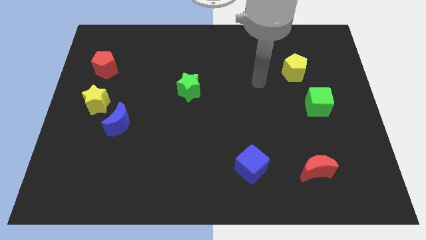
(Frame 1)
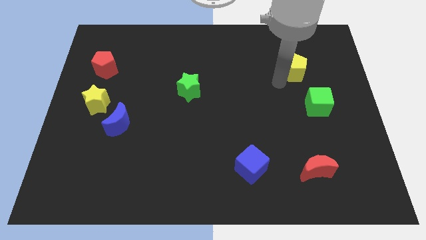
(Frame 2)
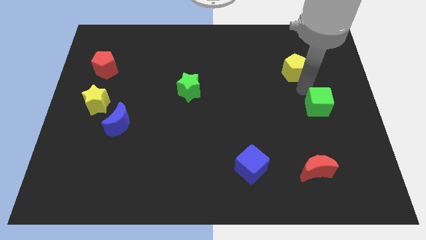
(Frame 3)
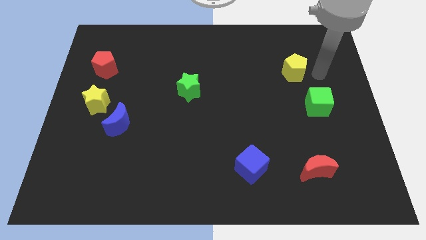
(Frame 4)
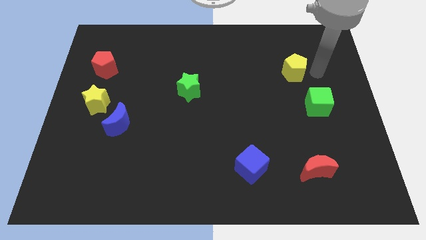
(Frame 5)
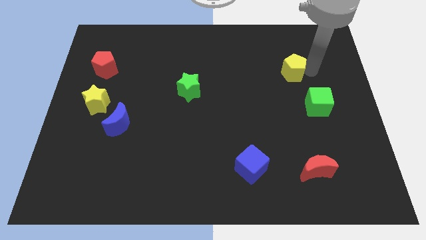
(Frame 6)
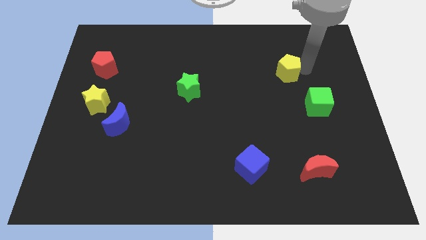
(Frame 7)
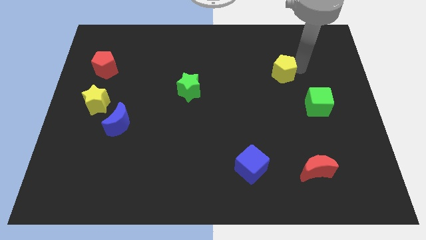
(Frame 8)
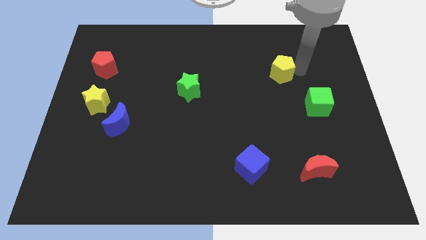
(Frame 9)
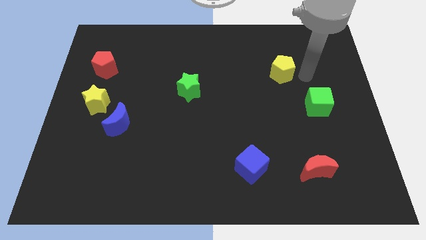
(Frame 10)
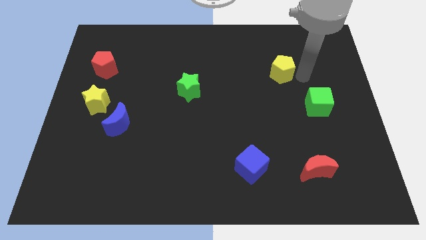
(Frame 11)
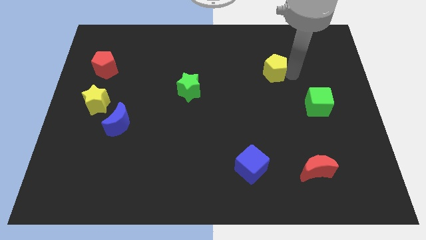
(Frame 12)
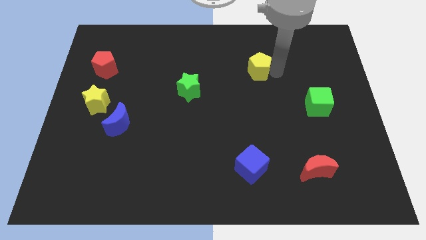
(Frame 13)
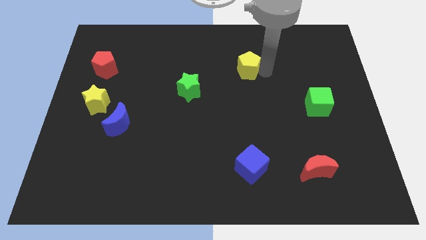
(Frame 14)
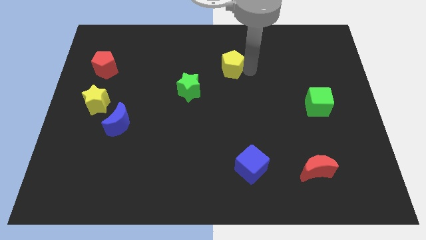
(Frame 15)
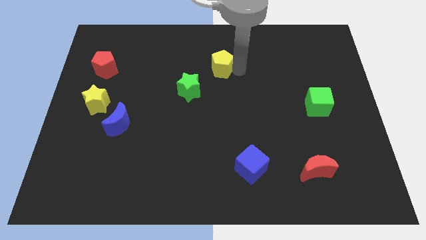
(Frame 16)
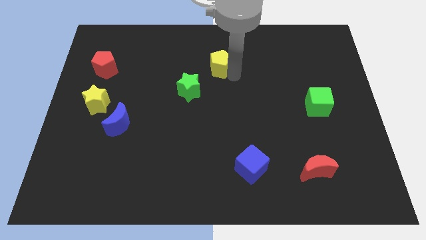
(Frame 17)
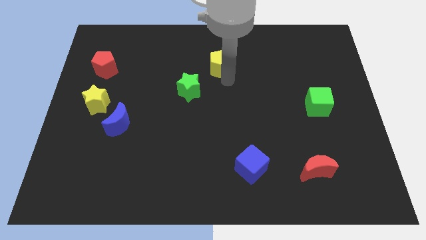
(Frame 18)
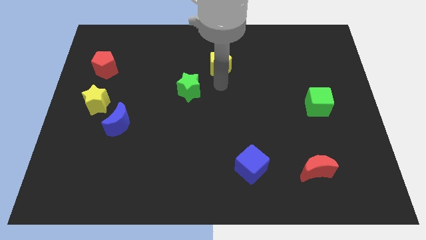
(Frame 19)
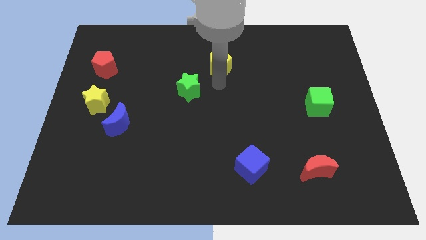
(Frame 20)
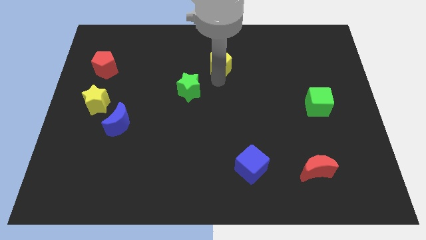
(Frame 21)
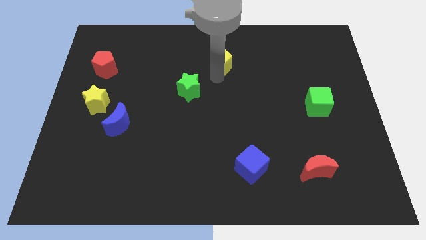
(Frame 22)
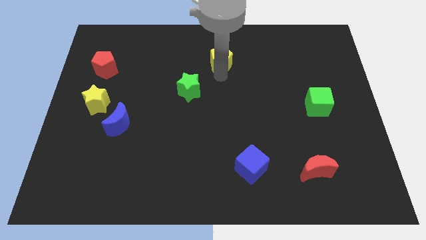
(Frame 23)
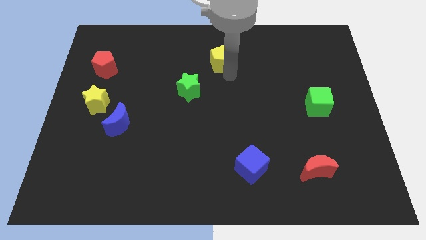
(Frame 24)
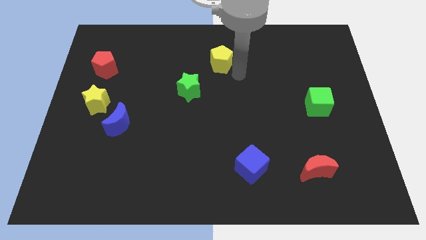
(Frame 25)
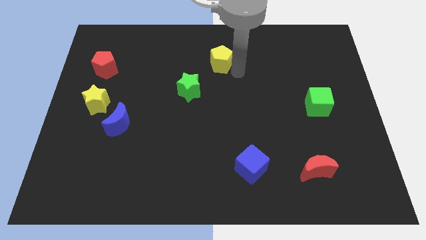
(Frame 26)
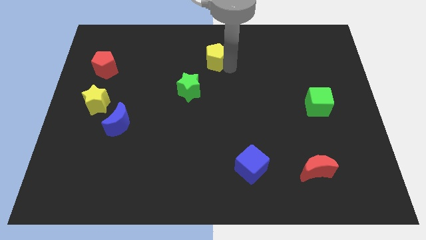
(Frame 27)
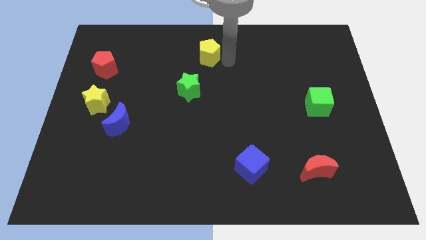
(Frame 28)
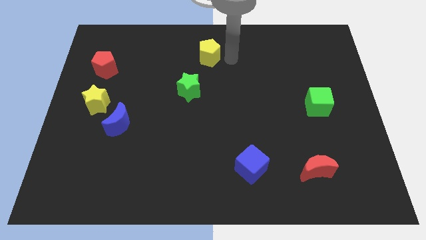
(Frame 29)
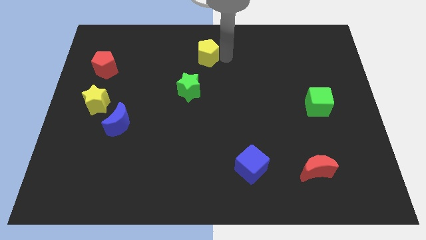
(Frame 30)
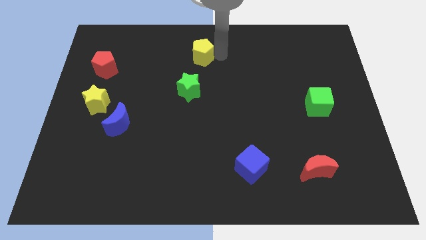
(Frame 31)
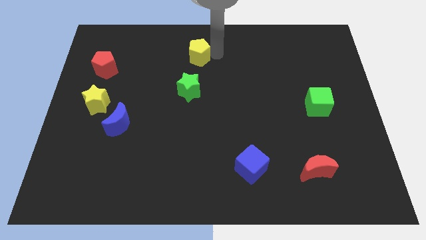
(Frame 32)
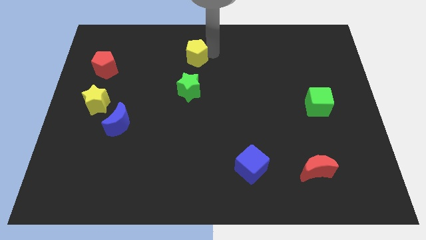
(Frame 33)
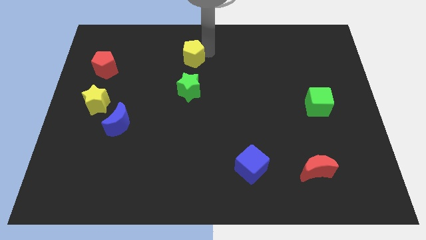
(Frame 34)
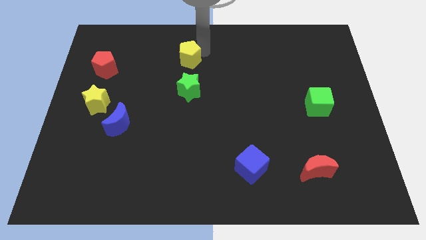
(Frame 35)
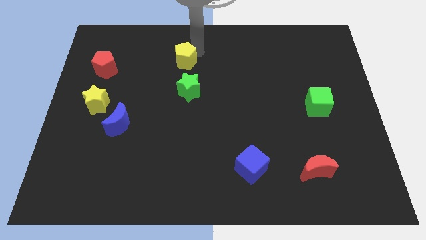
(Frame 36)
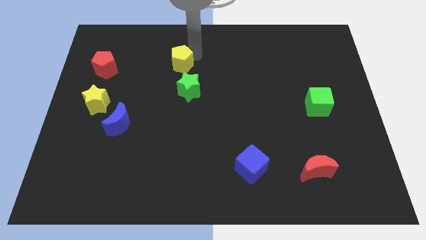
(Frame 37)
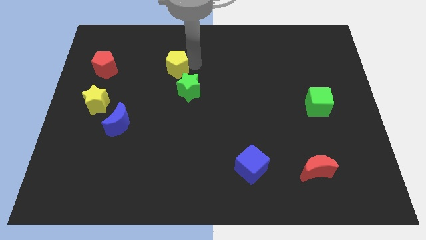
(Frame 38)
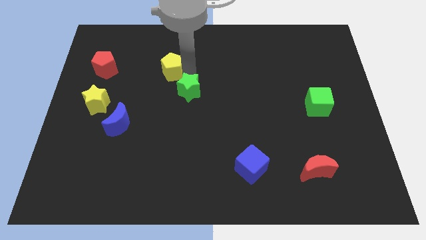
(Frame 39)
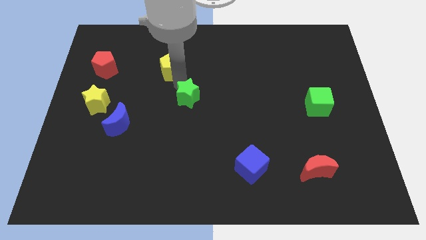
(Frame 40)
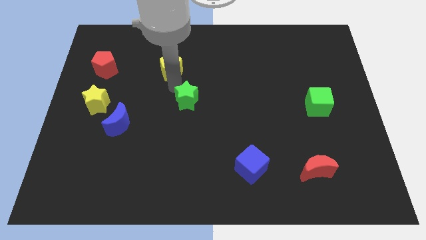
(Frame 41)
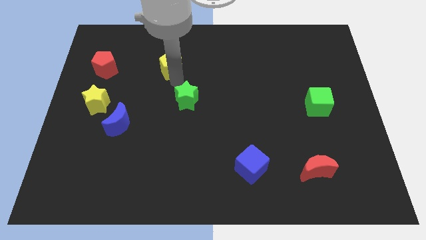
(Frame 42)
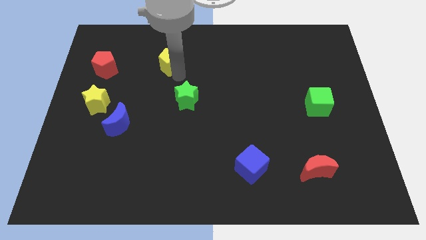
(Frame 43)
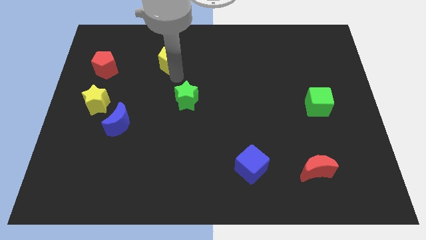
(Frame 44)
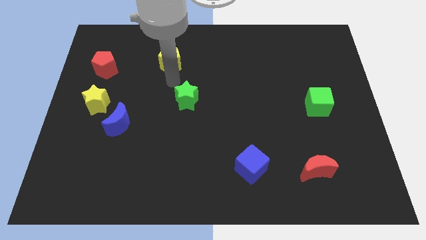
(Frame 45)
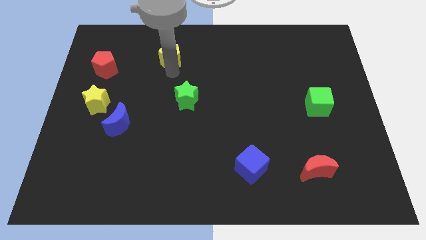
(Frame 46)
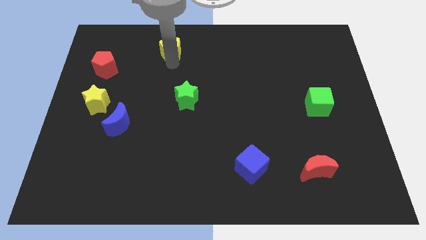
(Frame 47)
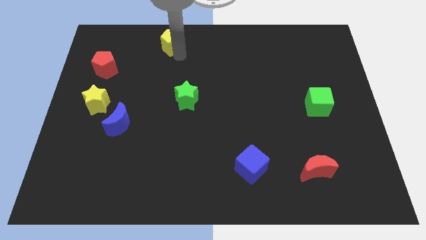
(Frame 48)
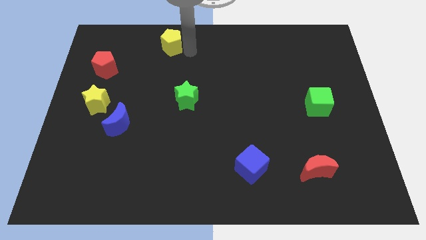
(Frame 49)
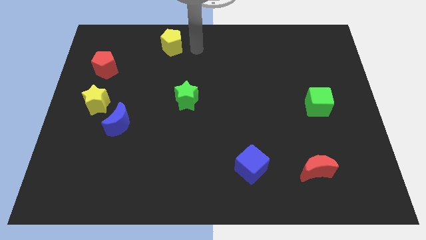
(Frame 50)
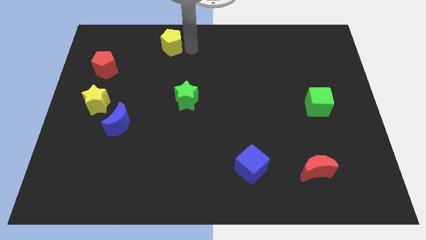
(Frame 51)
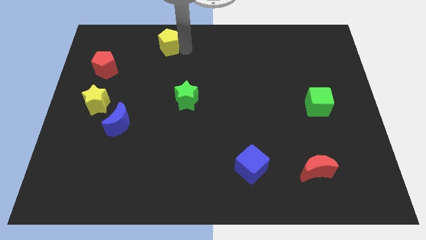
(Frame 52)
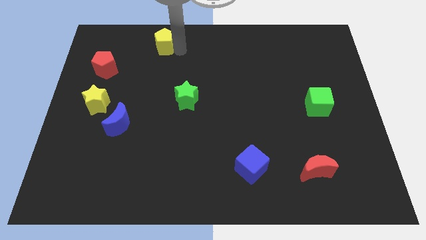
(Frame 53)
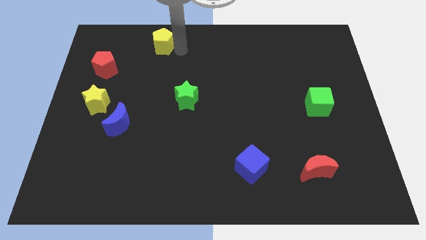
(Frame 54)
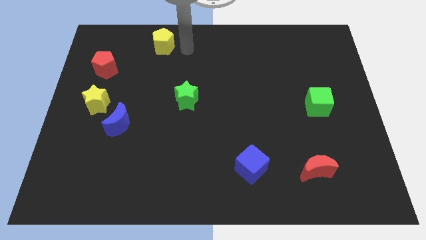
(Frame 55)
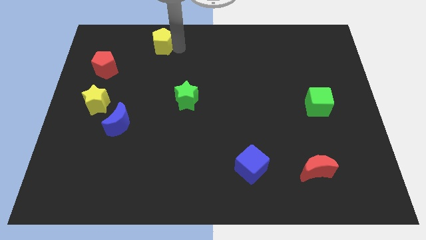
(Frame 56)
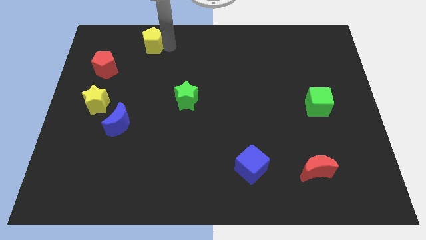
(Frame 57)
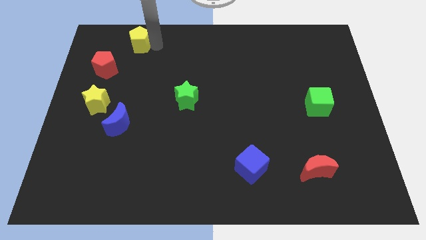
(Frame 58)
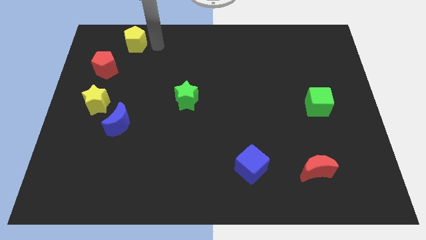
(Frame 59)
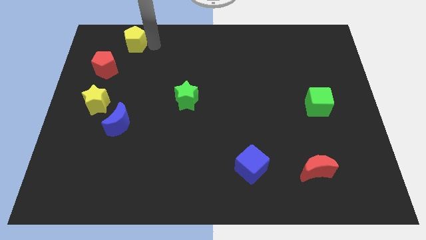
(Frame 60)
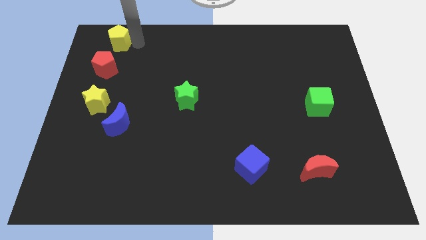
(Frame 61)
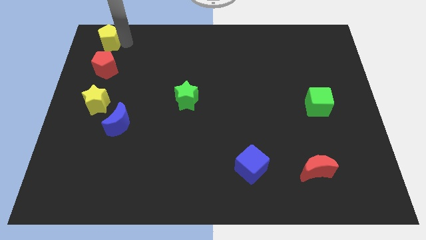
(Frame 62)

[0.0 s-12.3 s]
push the yellow pentagon to the top left corner
